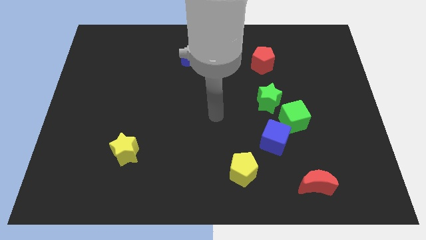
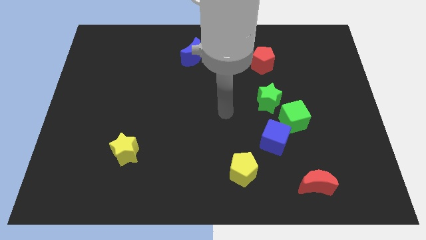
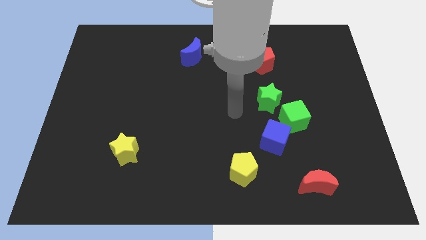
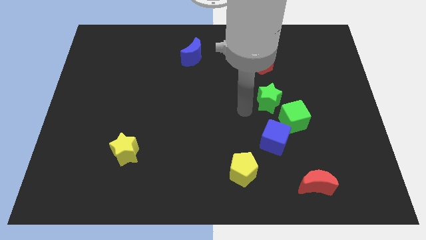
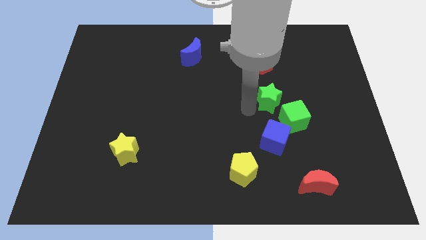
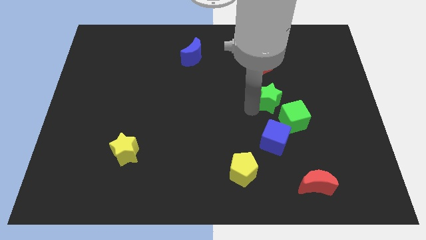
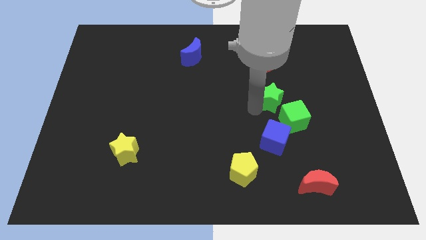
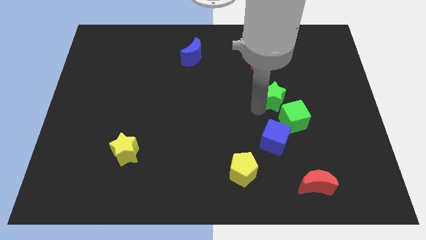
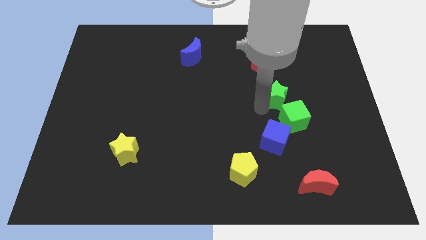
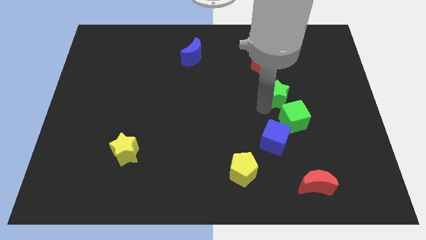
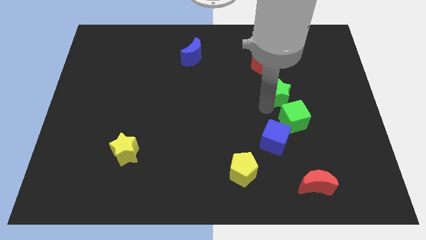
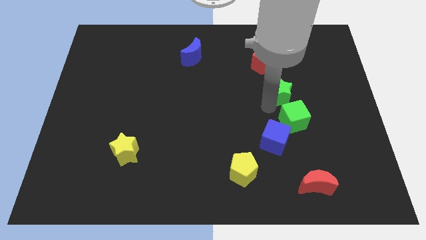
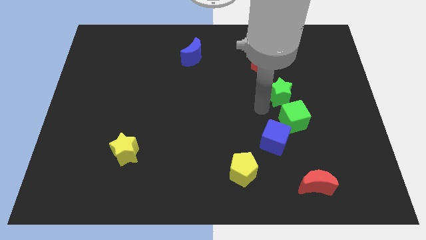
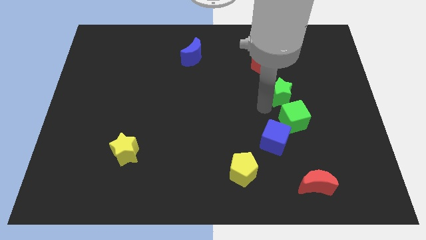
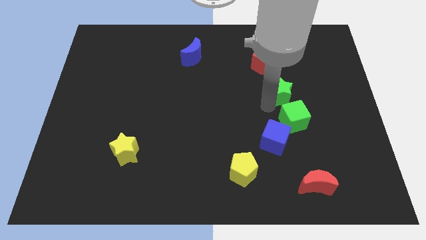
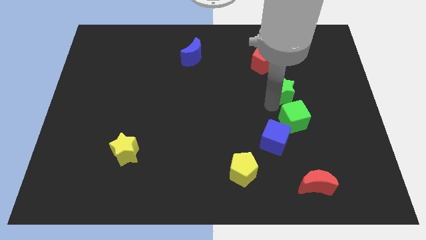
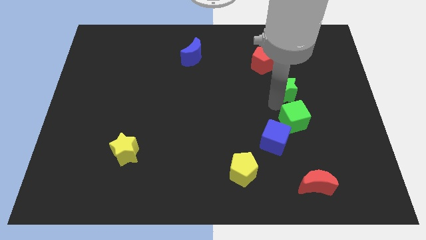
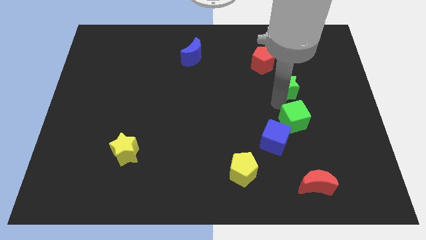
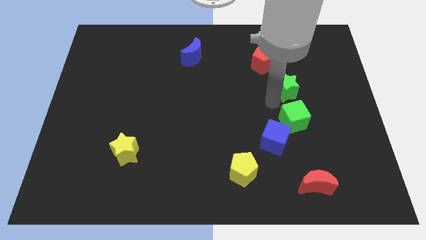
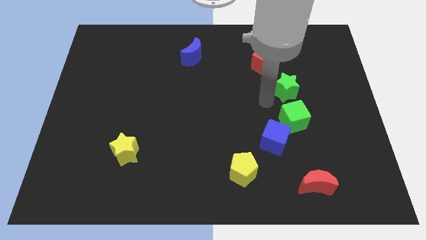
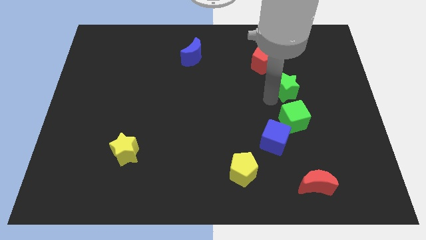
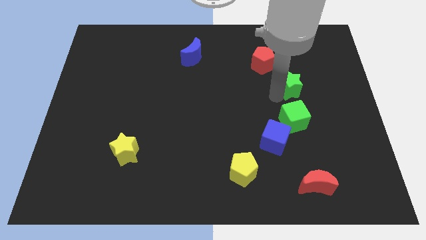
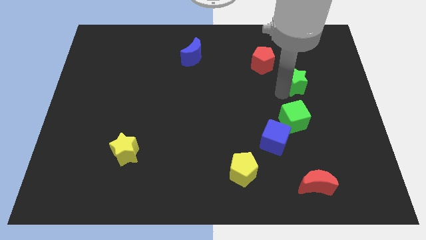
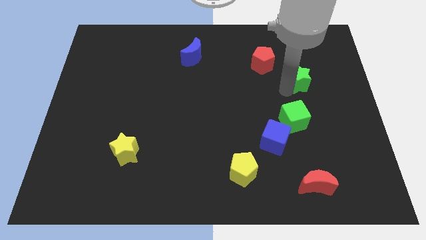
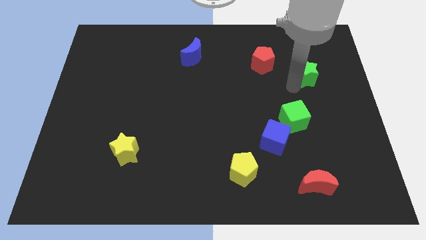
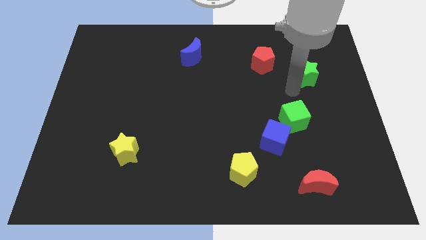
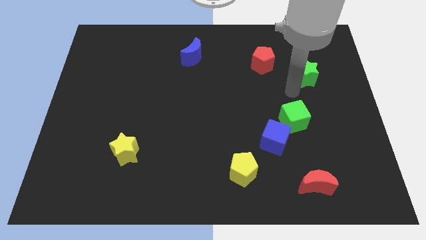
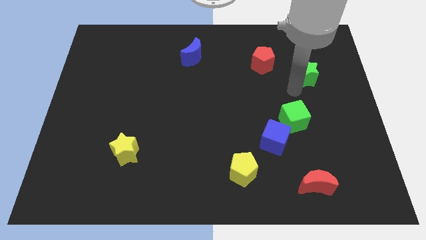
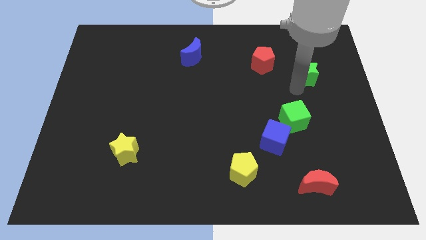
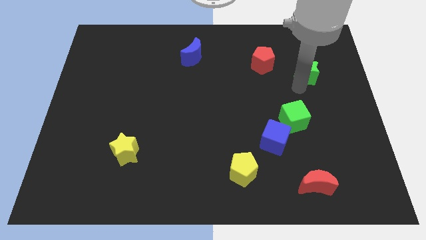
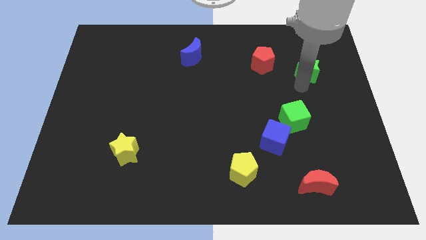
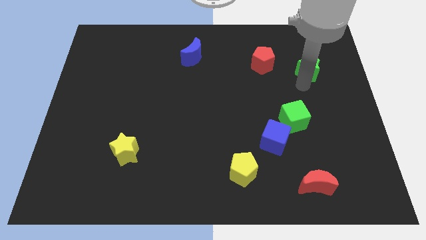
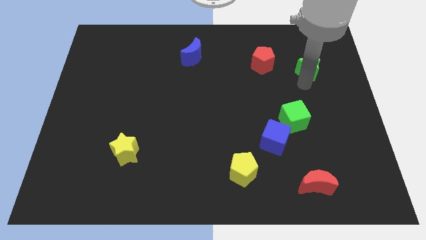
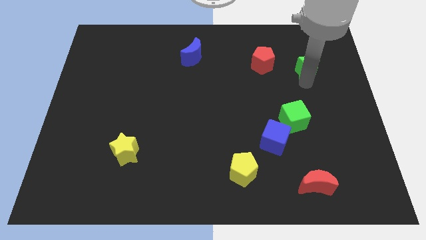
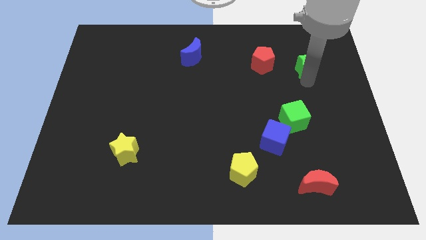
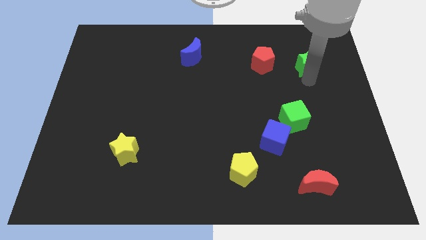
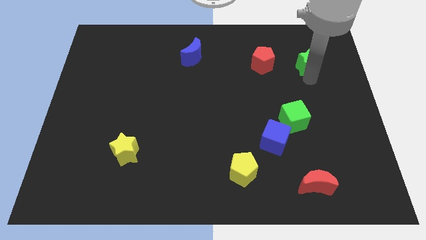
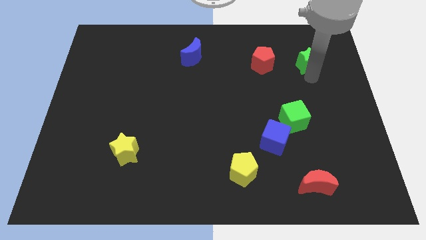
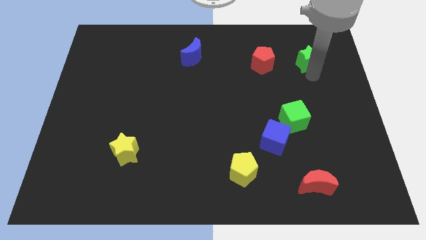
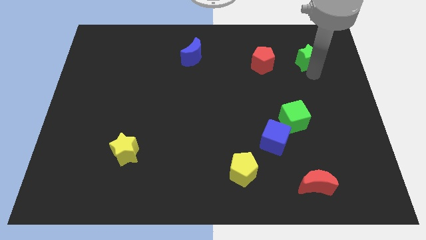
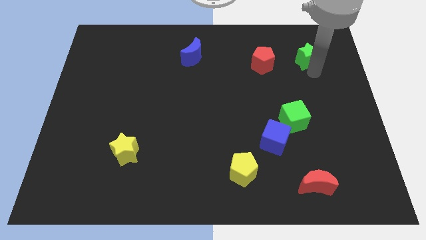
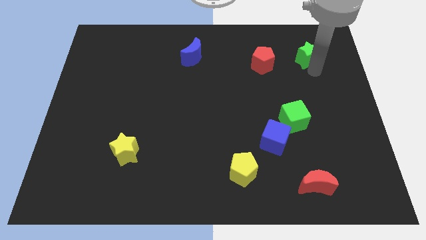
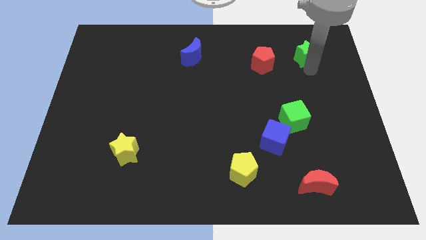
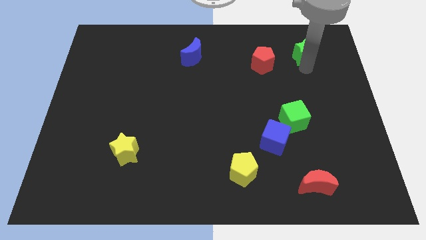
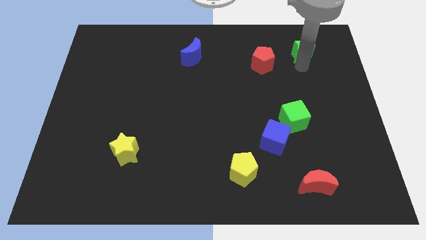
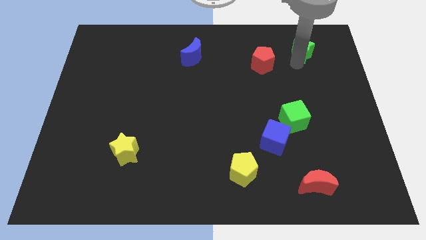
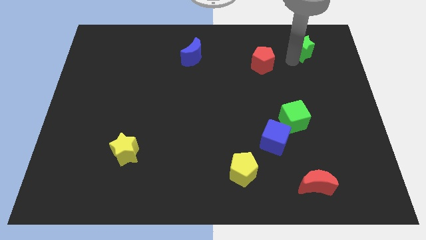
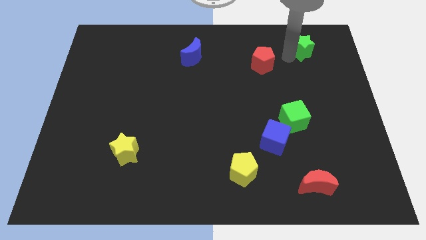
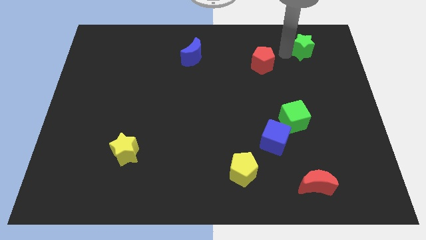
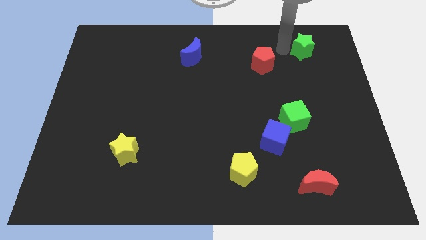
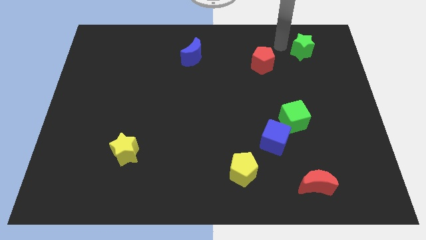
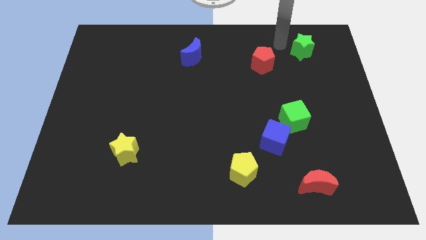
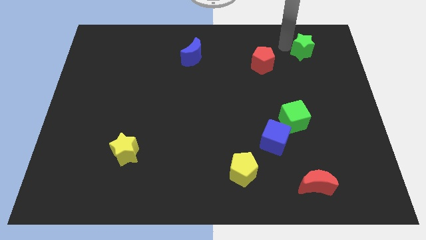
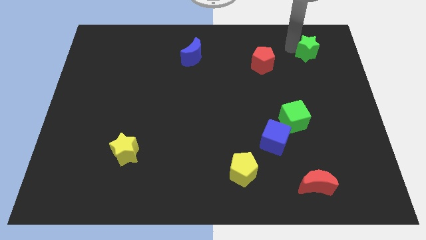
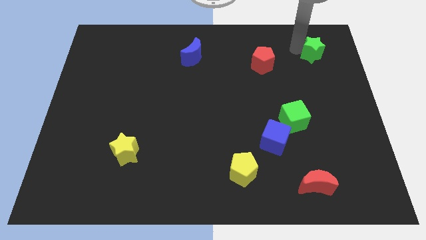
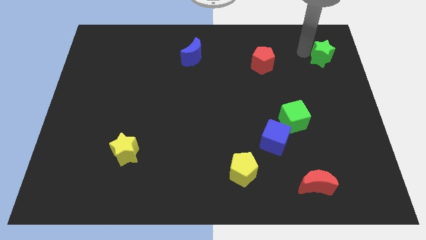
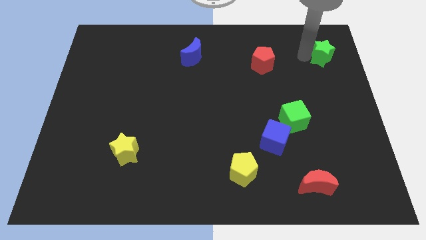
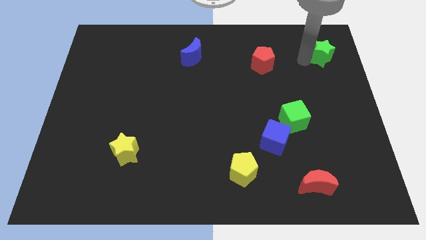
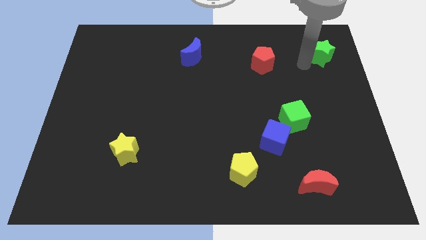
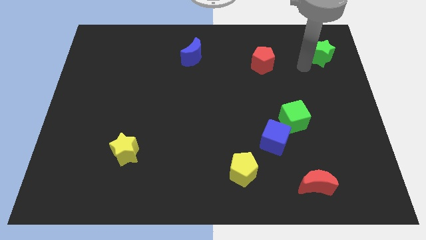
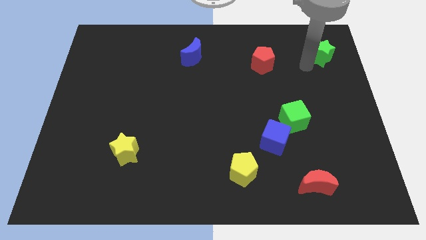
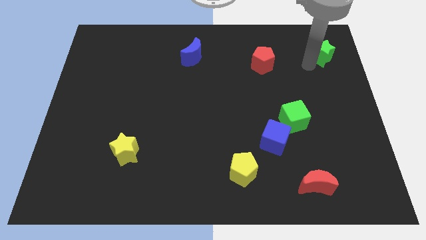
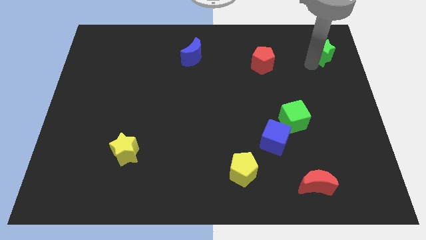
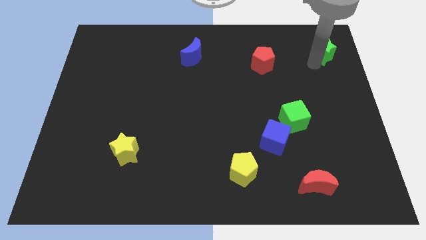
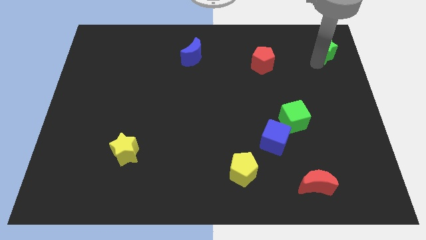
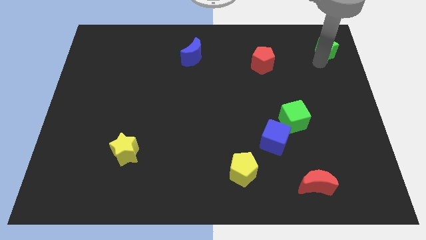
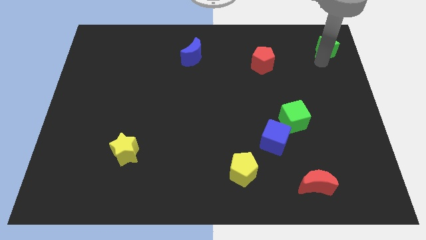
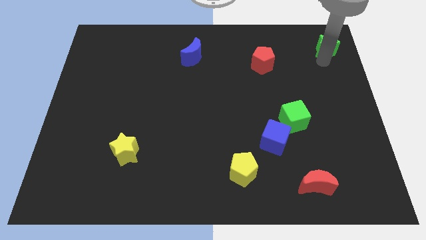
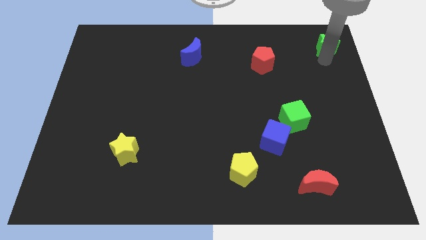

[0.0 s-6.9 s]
move the green star to the top right corner
